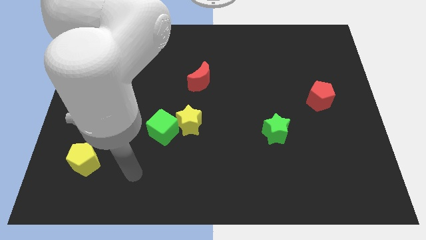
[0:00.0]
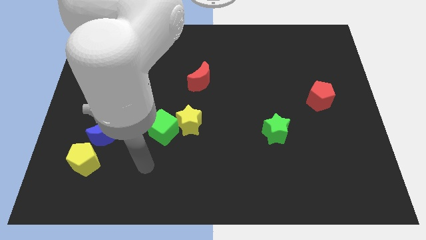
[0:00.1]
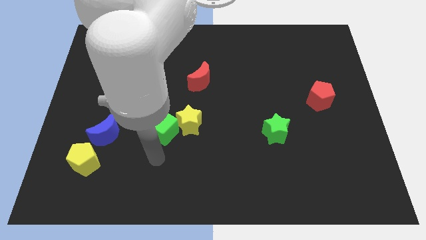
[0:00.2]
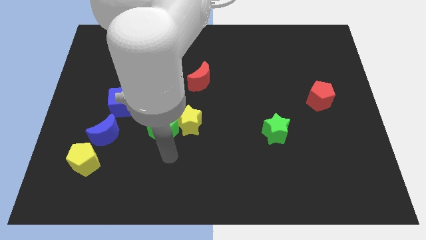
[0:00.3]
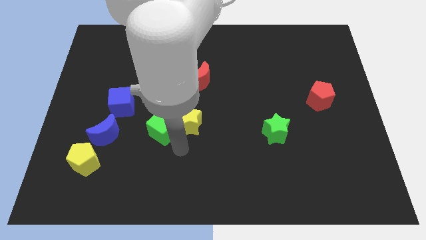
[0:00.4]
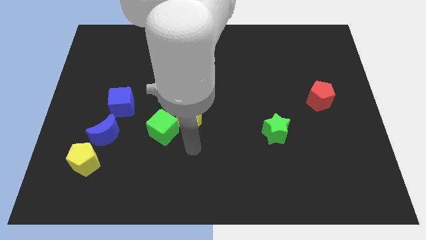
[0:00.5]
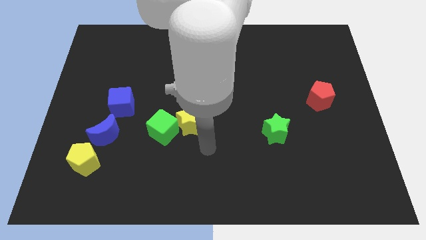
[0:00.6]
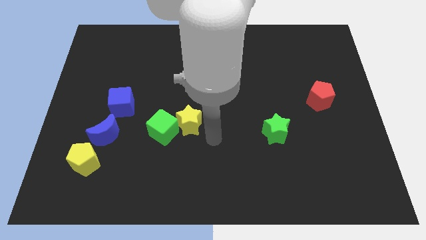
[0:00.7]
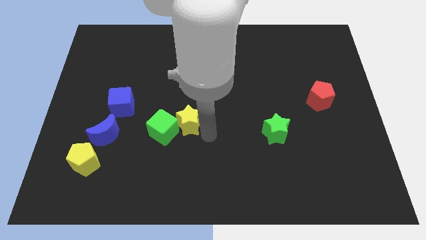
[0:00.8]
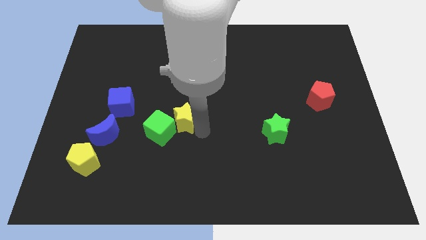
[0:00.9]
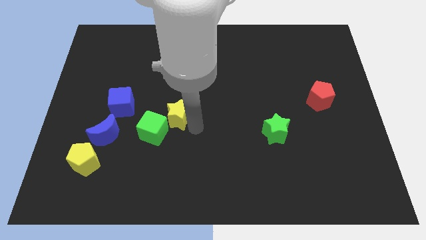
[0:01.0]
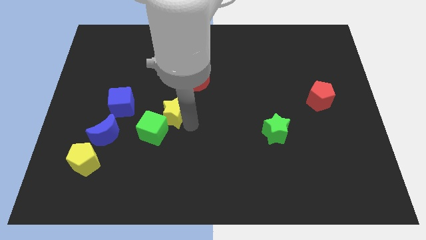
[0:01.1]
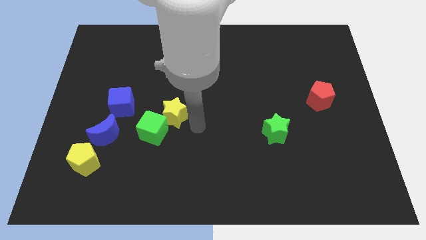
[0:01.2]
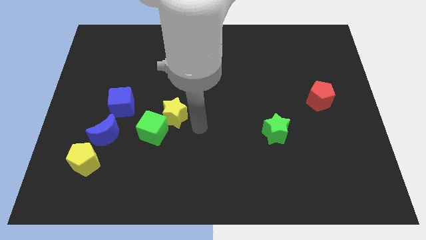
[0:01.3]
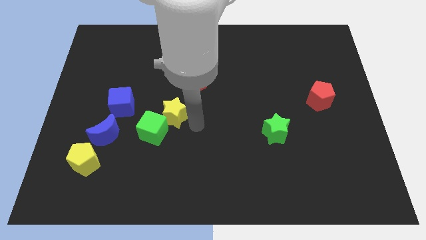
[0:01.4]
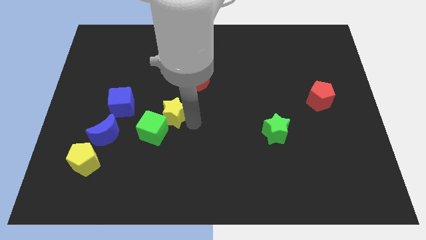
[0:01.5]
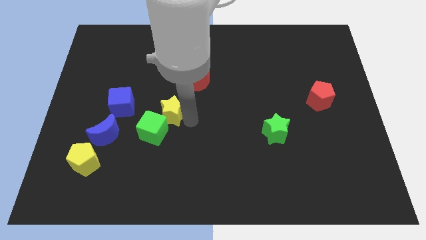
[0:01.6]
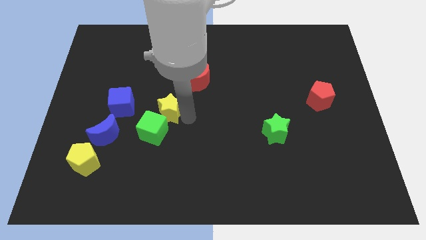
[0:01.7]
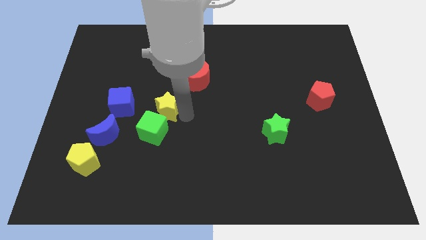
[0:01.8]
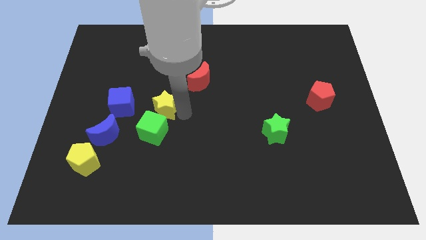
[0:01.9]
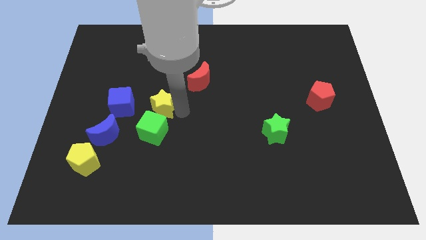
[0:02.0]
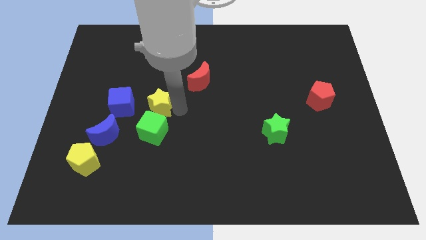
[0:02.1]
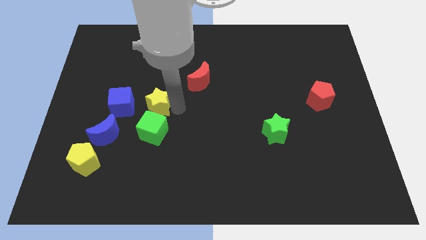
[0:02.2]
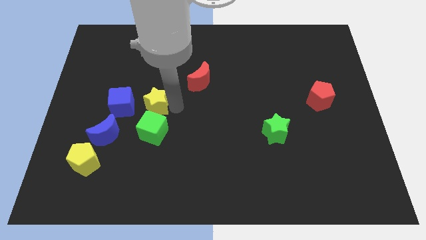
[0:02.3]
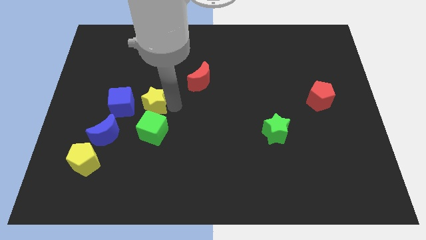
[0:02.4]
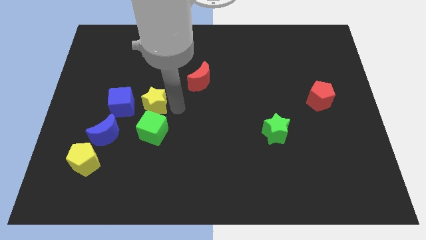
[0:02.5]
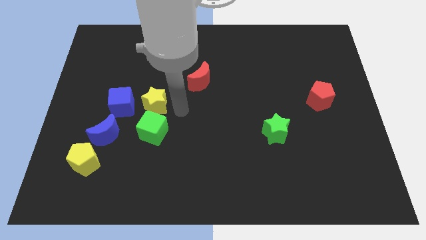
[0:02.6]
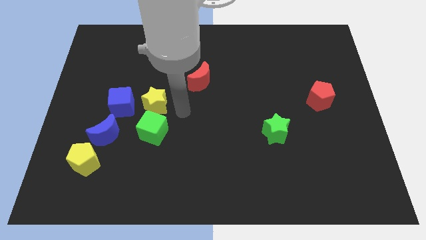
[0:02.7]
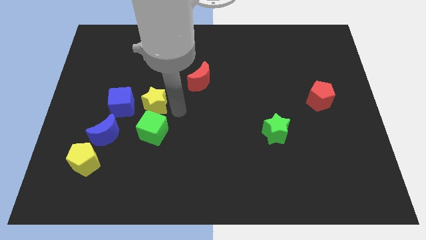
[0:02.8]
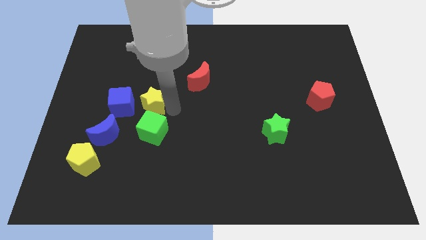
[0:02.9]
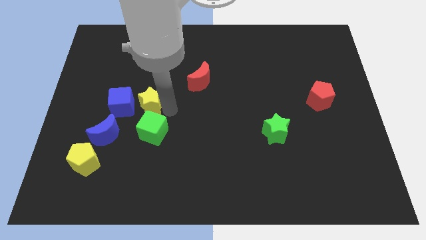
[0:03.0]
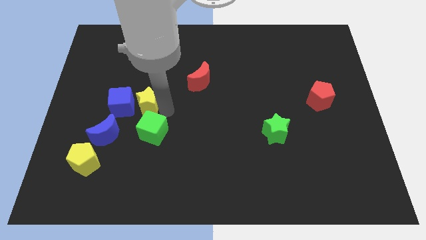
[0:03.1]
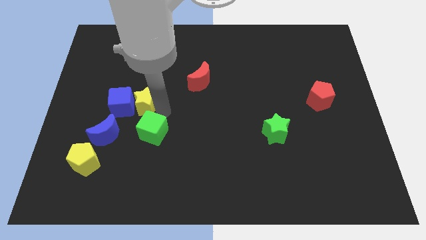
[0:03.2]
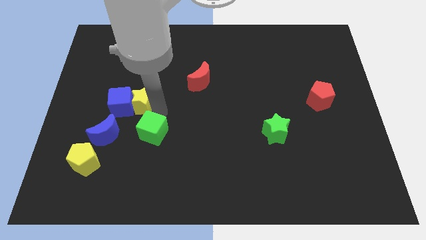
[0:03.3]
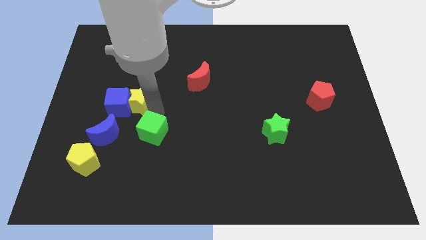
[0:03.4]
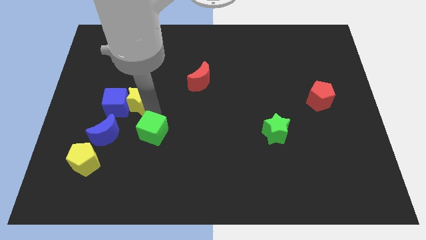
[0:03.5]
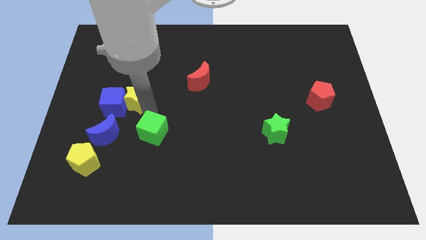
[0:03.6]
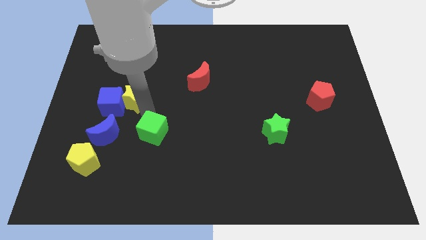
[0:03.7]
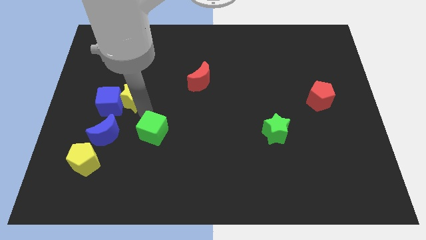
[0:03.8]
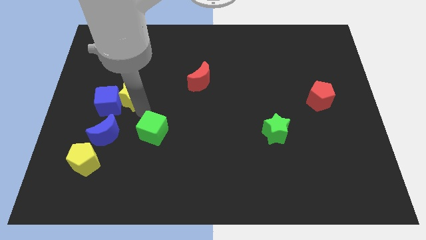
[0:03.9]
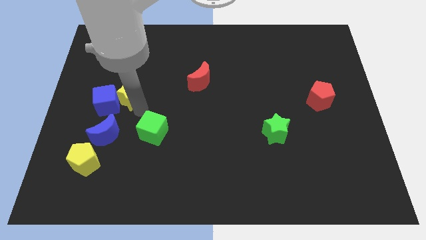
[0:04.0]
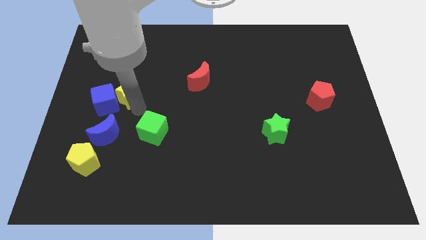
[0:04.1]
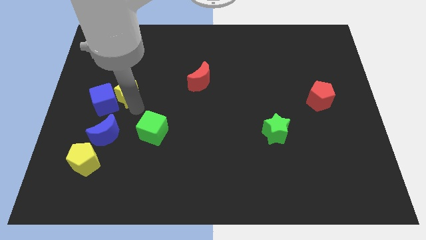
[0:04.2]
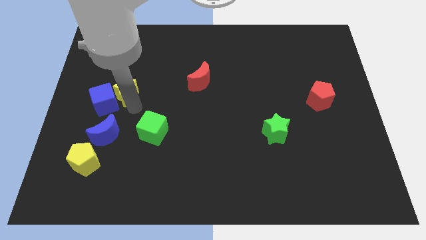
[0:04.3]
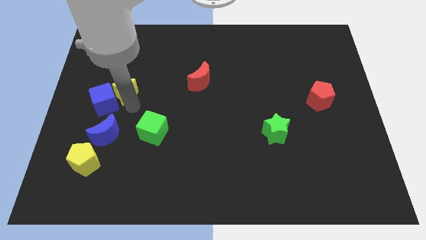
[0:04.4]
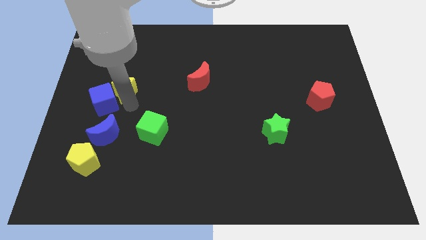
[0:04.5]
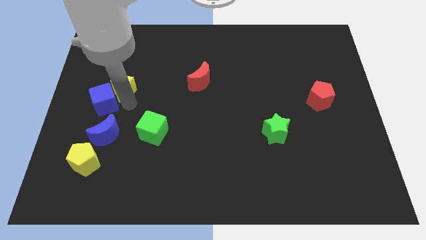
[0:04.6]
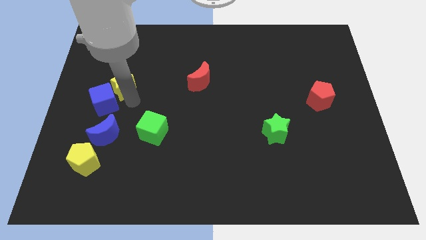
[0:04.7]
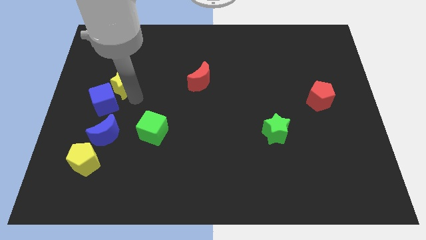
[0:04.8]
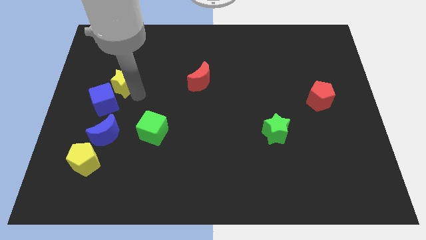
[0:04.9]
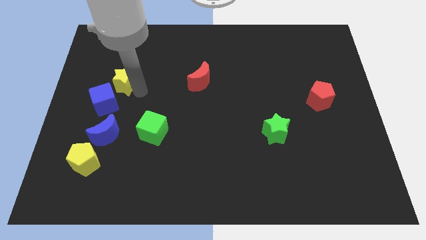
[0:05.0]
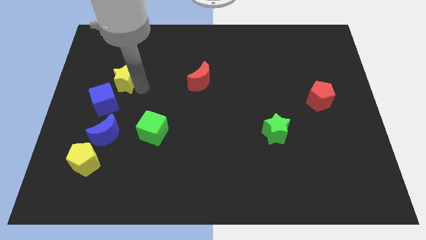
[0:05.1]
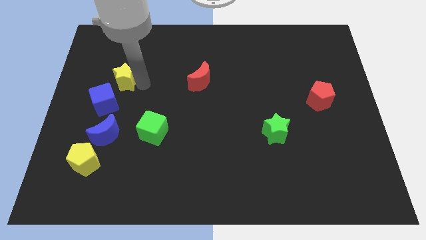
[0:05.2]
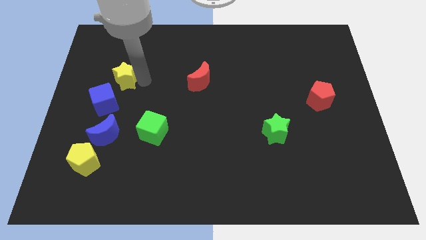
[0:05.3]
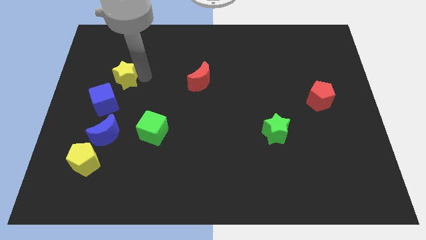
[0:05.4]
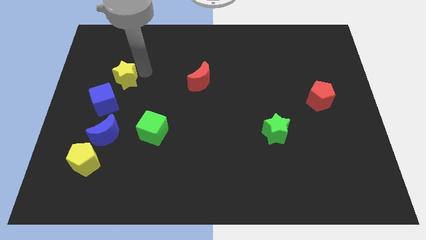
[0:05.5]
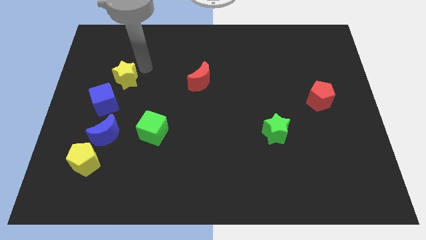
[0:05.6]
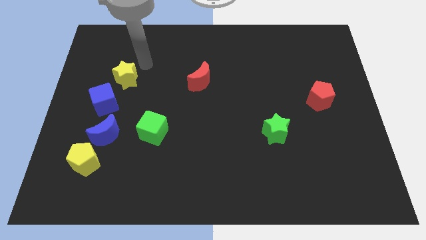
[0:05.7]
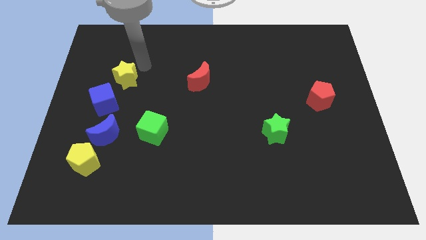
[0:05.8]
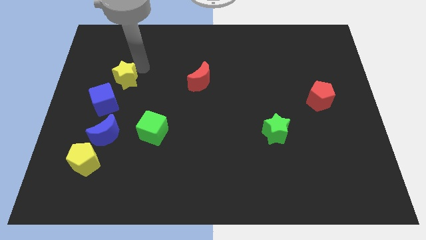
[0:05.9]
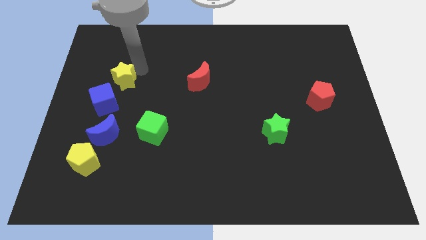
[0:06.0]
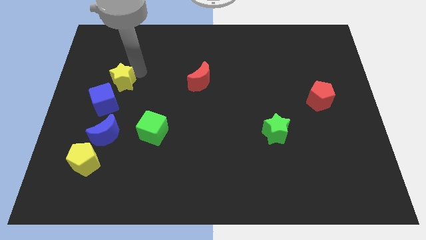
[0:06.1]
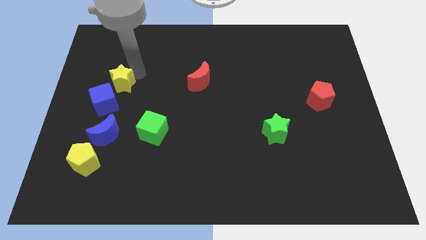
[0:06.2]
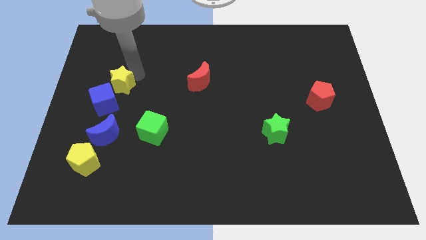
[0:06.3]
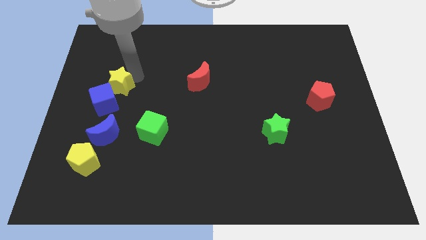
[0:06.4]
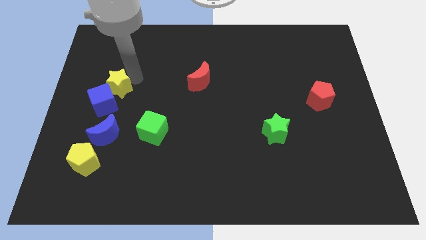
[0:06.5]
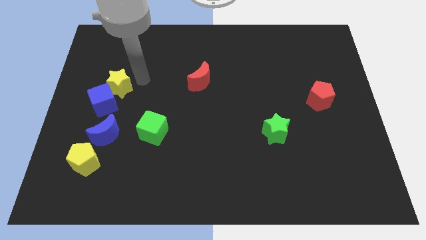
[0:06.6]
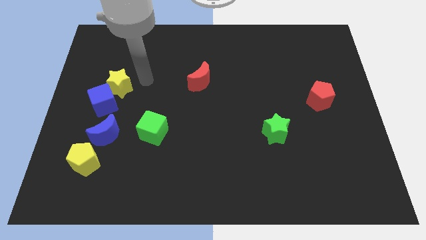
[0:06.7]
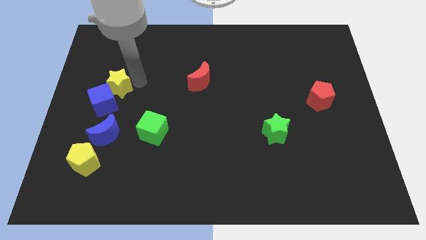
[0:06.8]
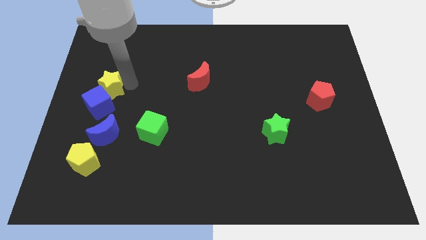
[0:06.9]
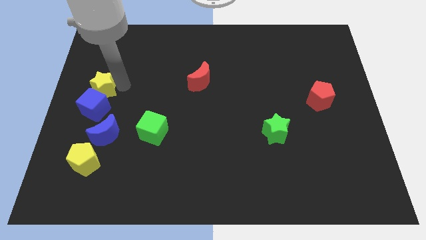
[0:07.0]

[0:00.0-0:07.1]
put the yellow star to the left side of the board

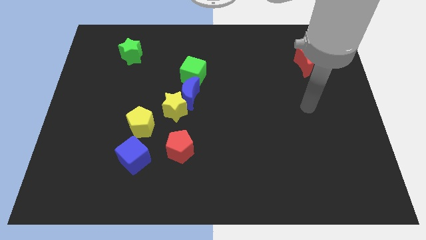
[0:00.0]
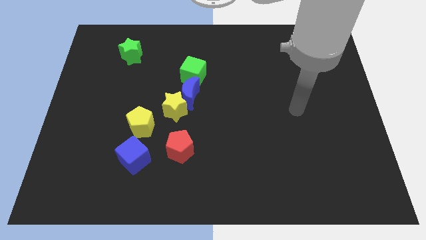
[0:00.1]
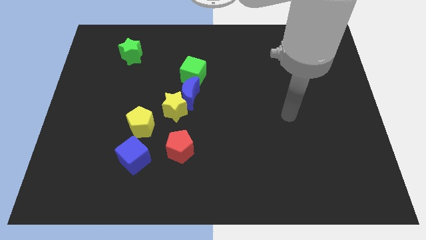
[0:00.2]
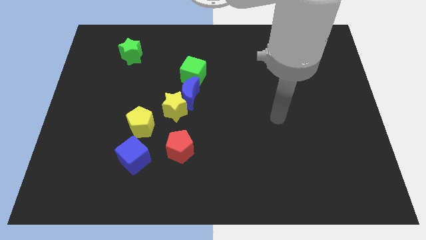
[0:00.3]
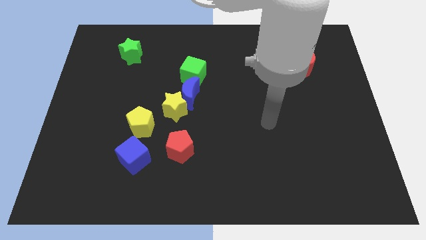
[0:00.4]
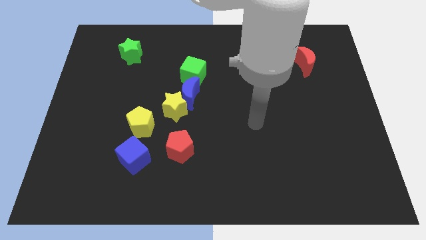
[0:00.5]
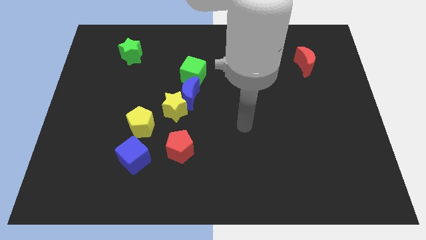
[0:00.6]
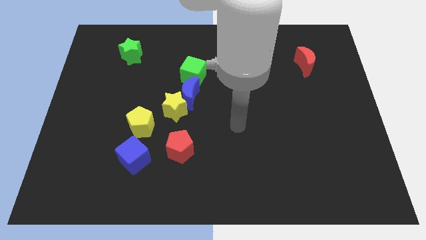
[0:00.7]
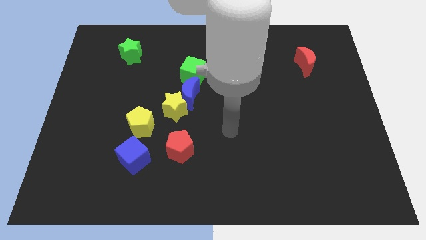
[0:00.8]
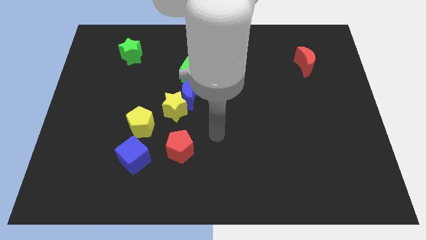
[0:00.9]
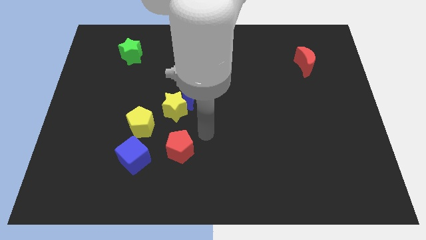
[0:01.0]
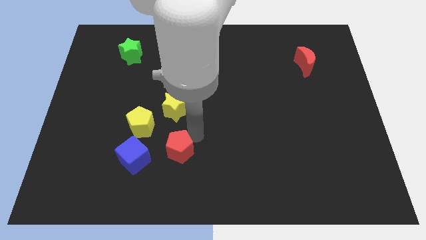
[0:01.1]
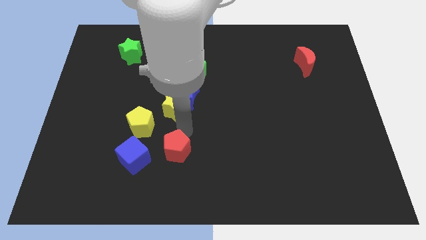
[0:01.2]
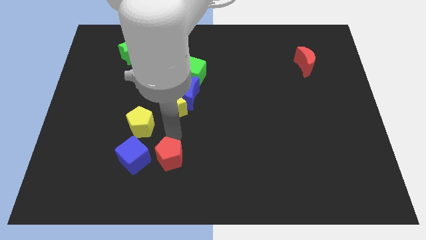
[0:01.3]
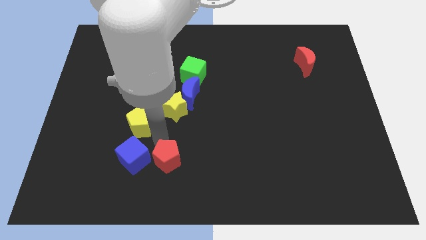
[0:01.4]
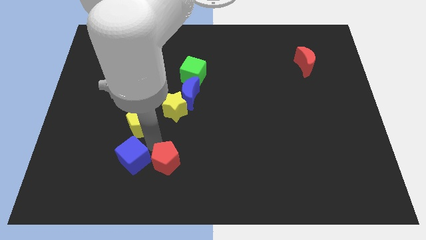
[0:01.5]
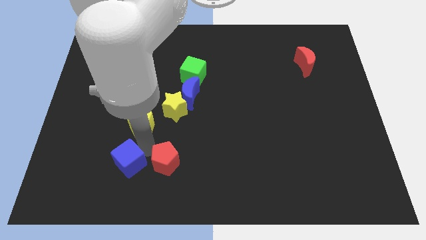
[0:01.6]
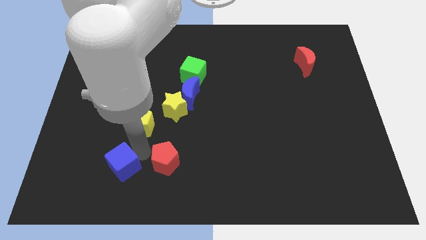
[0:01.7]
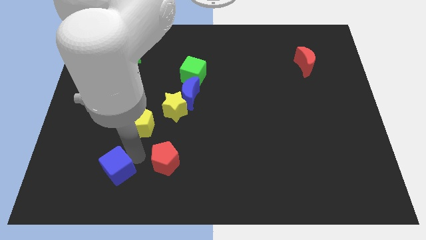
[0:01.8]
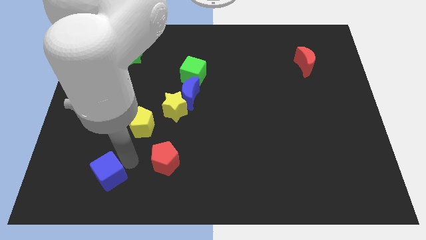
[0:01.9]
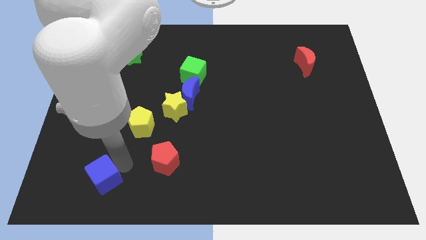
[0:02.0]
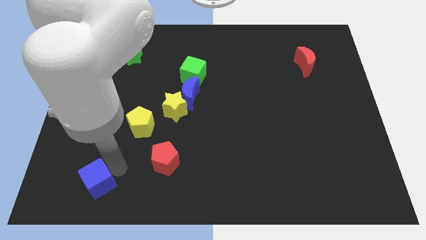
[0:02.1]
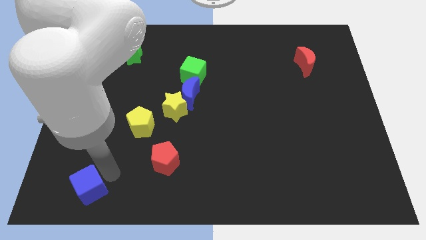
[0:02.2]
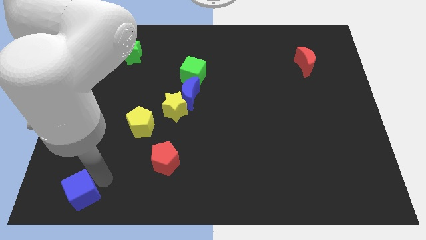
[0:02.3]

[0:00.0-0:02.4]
move the blue cube to the bottom left
